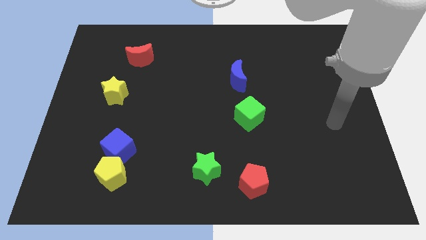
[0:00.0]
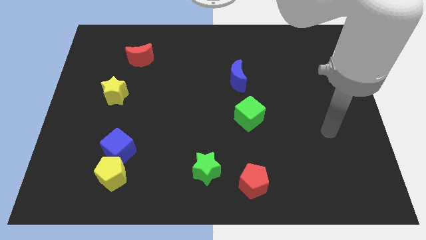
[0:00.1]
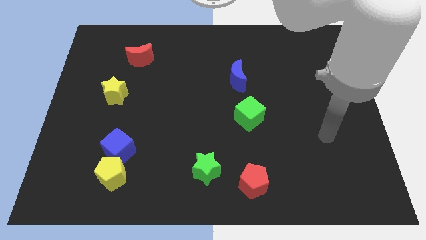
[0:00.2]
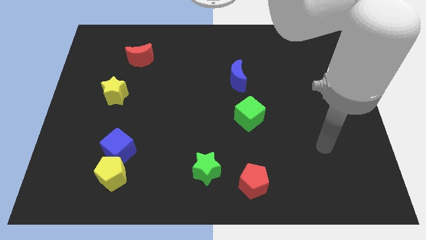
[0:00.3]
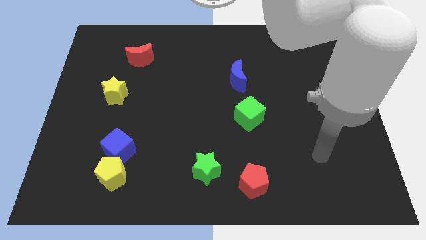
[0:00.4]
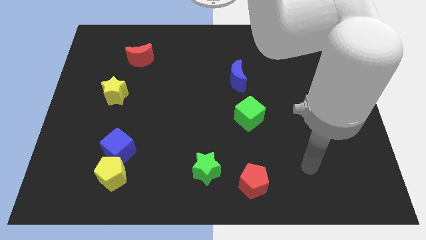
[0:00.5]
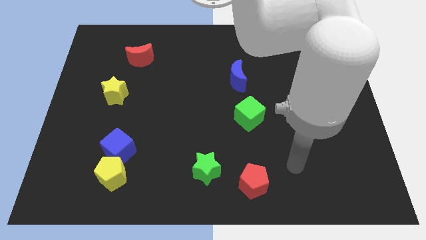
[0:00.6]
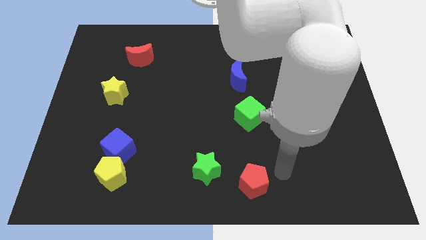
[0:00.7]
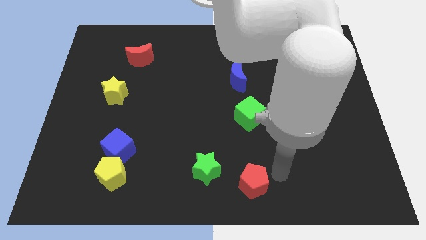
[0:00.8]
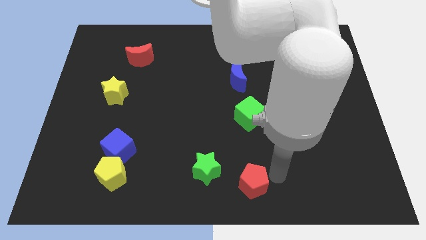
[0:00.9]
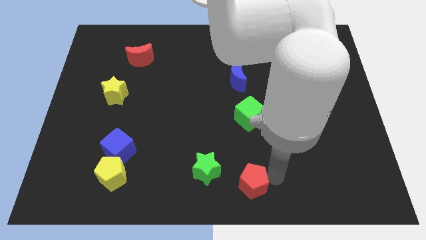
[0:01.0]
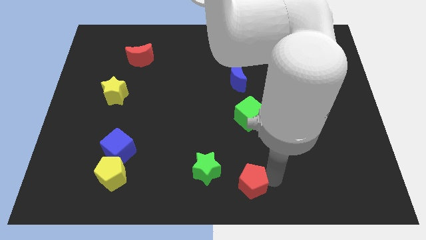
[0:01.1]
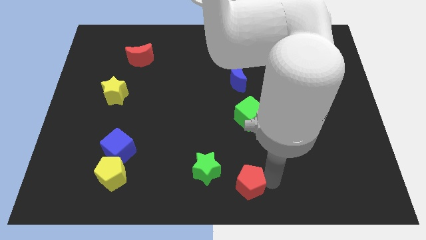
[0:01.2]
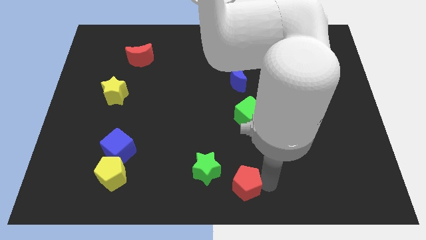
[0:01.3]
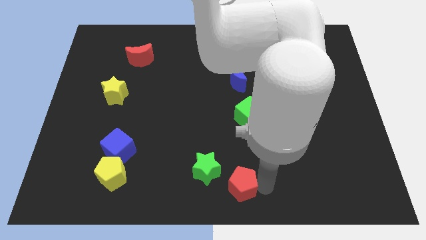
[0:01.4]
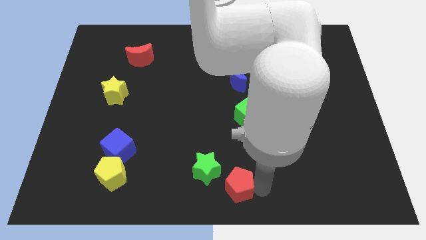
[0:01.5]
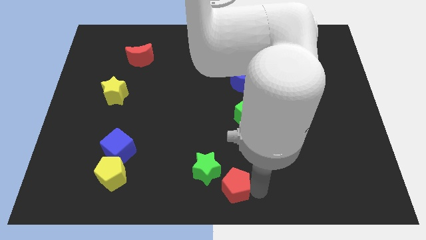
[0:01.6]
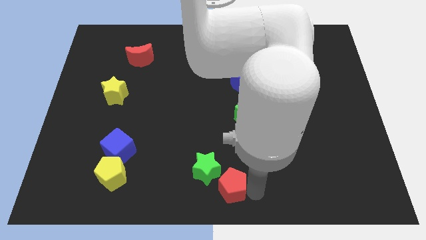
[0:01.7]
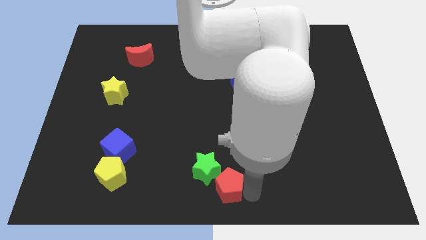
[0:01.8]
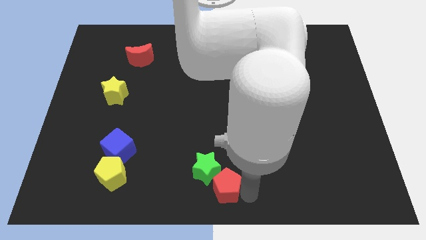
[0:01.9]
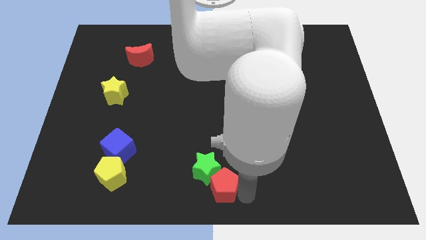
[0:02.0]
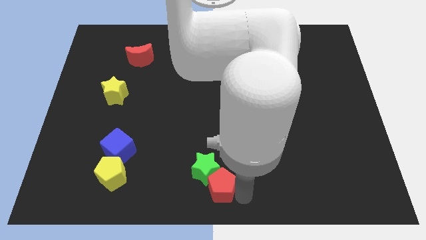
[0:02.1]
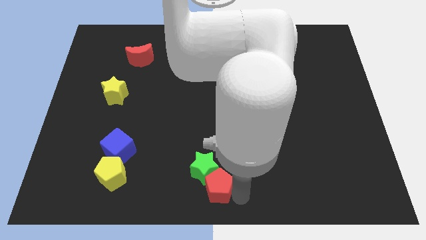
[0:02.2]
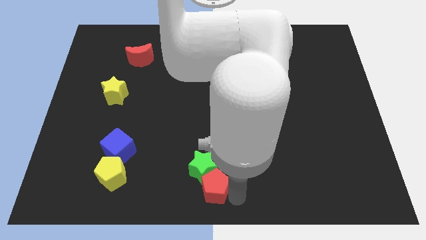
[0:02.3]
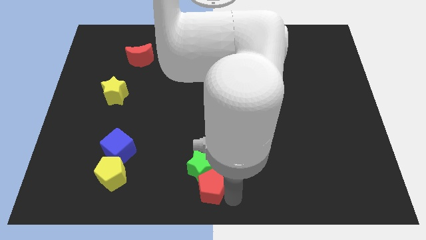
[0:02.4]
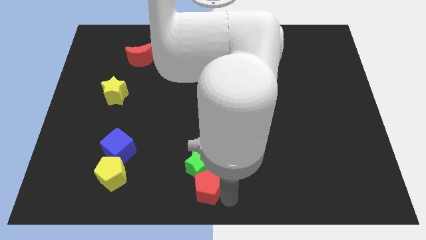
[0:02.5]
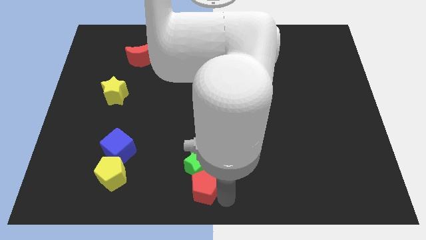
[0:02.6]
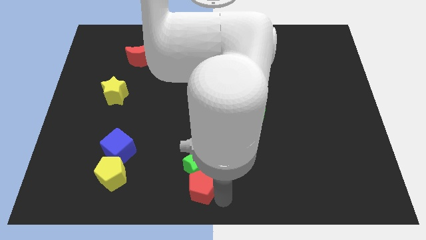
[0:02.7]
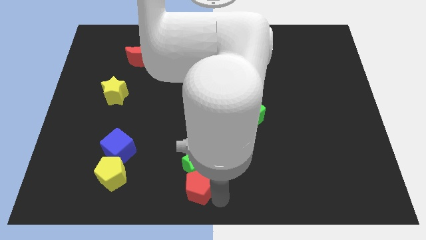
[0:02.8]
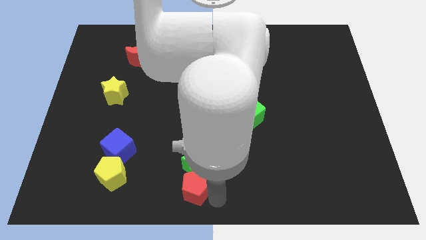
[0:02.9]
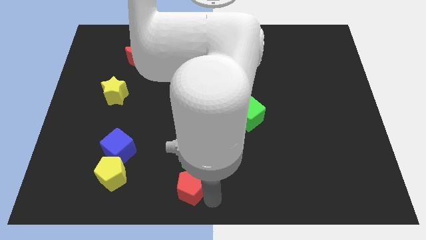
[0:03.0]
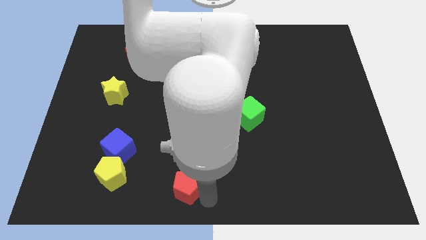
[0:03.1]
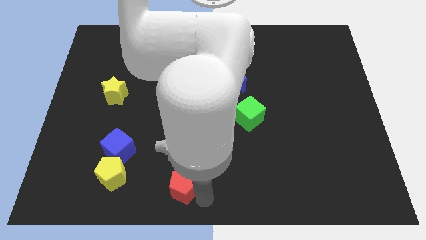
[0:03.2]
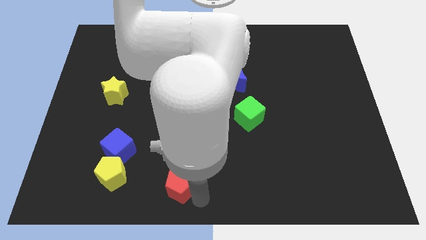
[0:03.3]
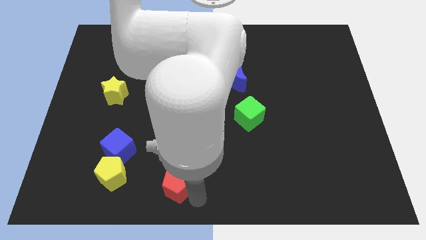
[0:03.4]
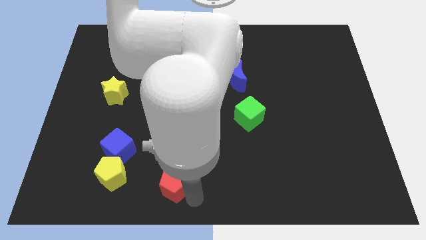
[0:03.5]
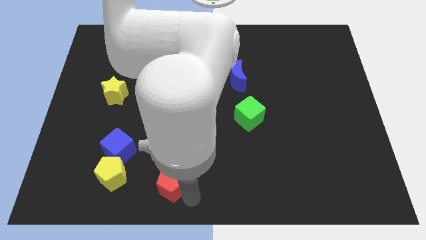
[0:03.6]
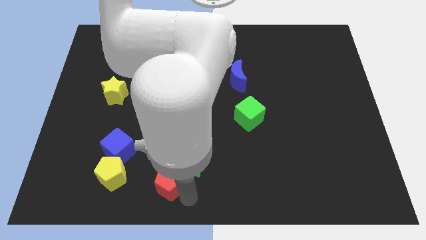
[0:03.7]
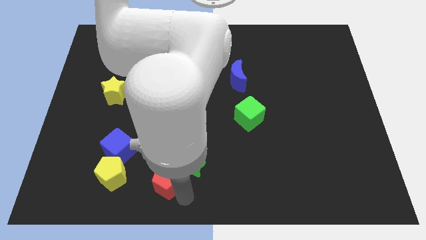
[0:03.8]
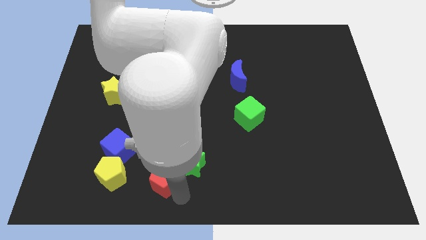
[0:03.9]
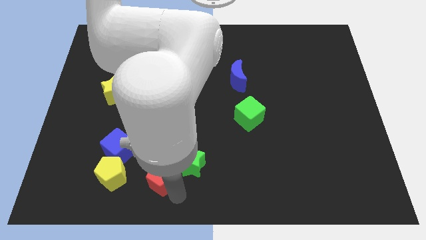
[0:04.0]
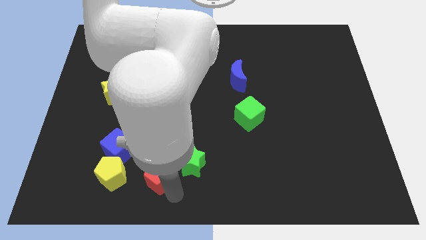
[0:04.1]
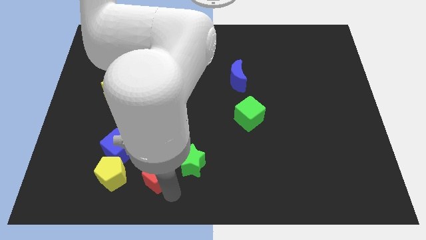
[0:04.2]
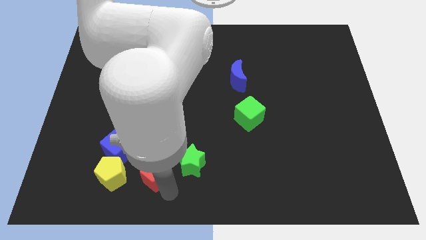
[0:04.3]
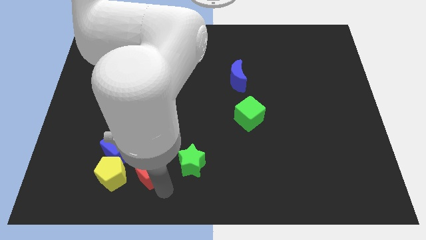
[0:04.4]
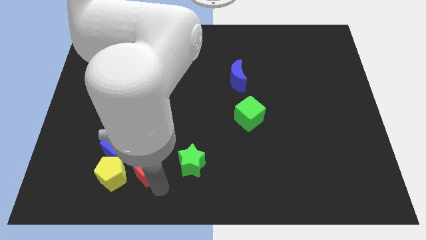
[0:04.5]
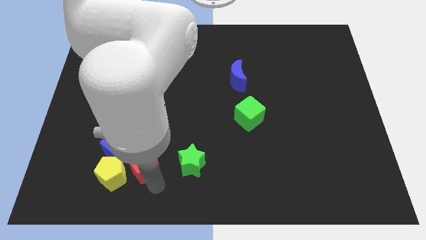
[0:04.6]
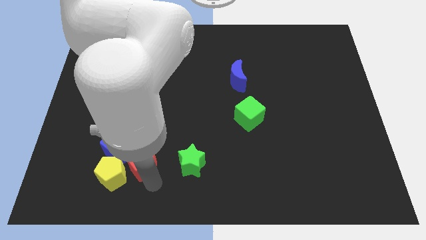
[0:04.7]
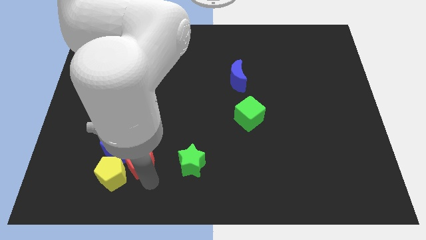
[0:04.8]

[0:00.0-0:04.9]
slide the red pentagon towards the blue cube

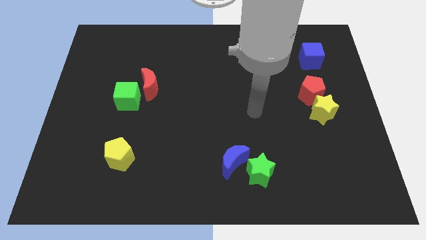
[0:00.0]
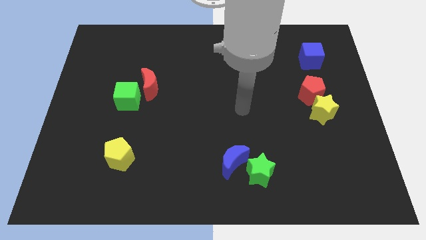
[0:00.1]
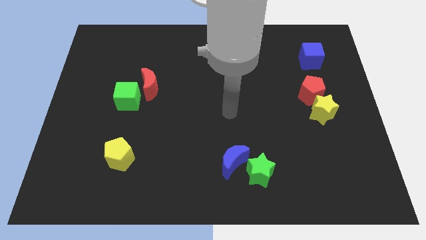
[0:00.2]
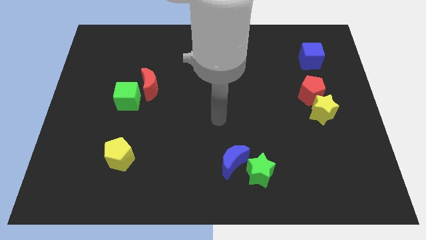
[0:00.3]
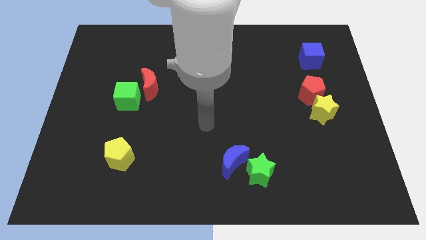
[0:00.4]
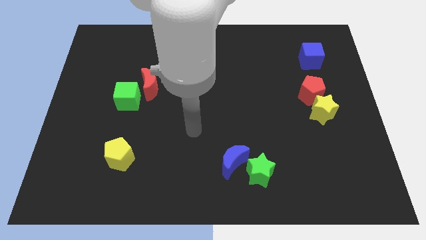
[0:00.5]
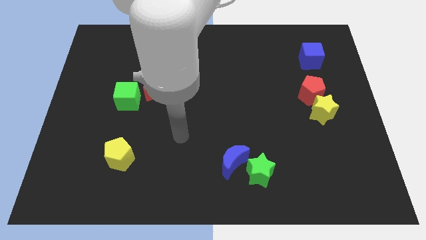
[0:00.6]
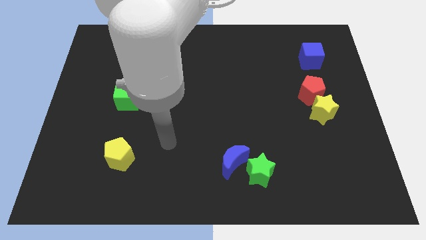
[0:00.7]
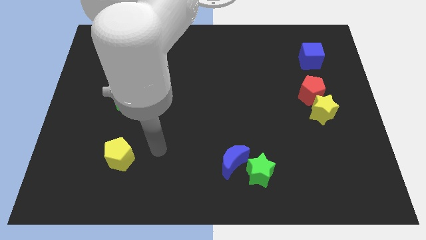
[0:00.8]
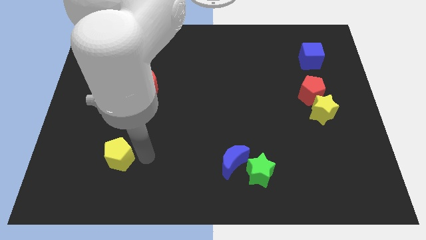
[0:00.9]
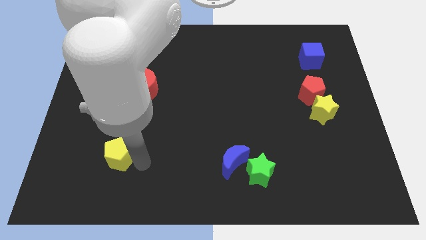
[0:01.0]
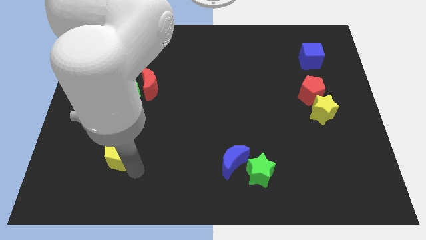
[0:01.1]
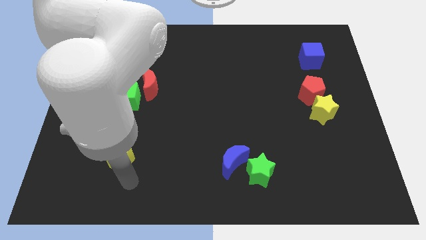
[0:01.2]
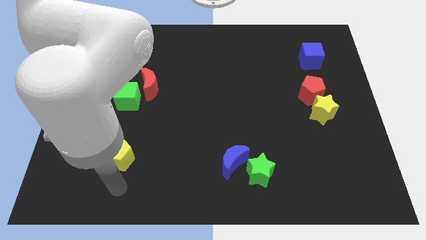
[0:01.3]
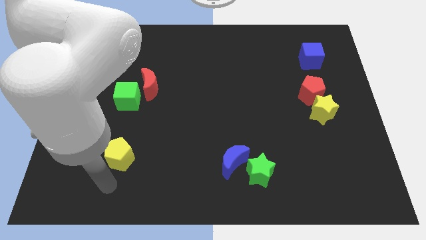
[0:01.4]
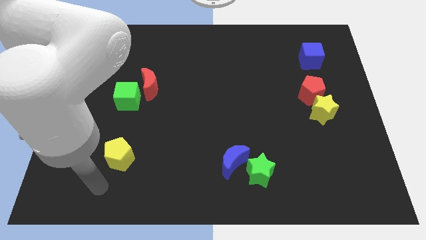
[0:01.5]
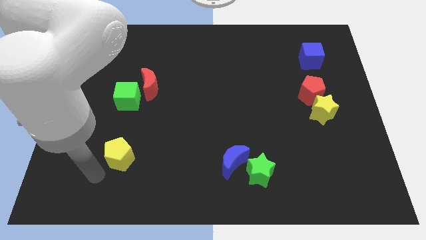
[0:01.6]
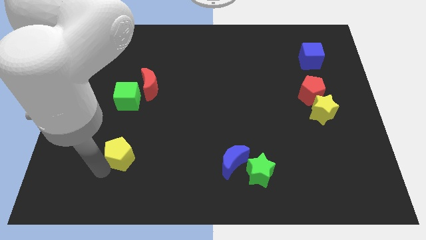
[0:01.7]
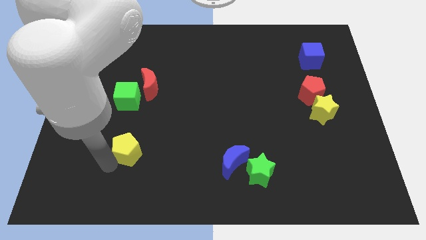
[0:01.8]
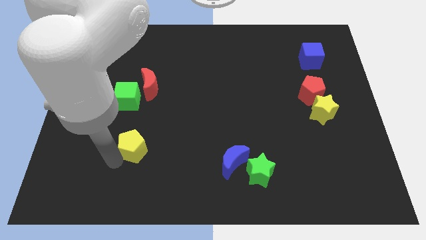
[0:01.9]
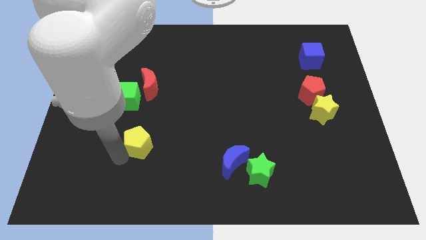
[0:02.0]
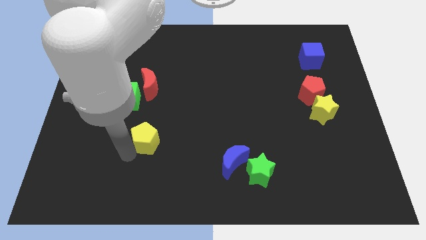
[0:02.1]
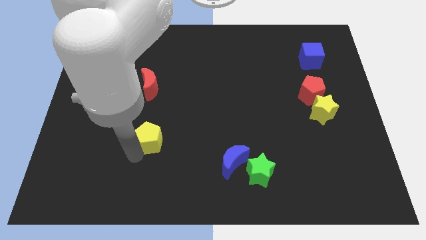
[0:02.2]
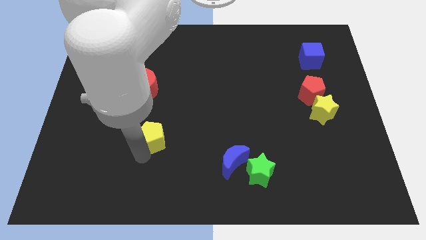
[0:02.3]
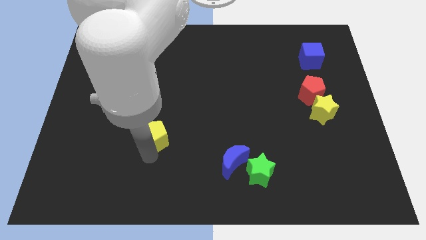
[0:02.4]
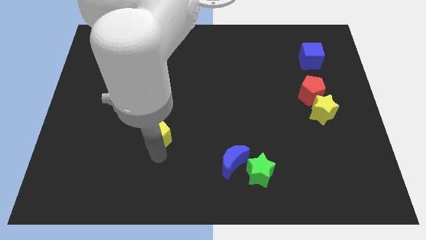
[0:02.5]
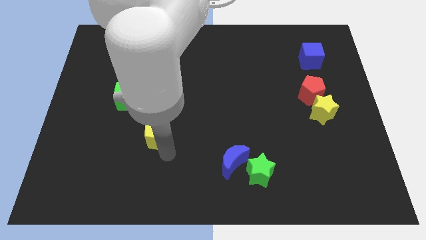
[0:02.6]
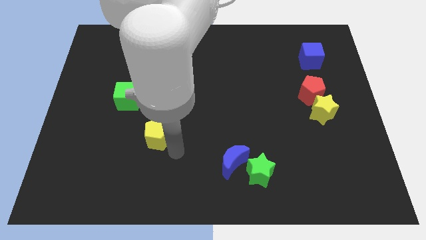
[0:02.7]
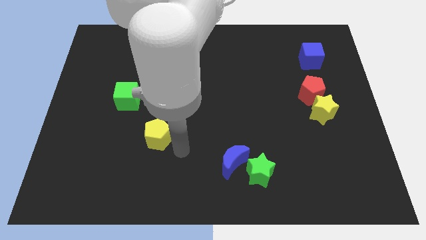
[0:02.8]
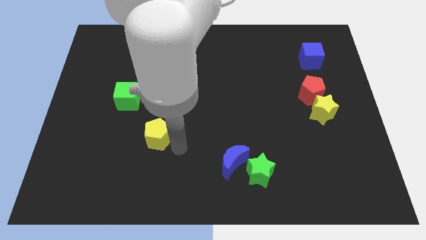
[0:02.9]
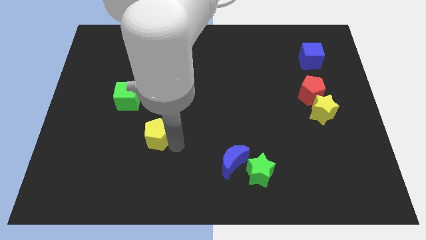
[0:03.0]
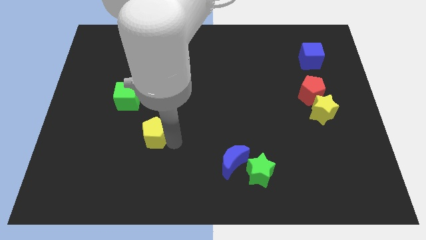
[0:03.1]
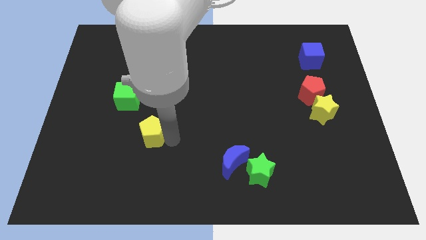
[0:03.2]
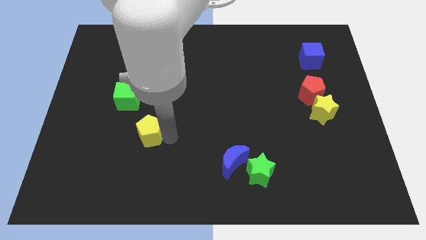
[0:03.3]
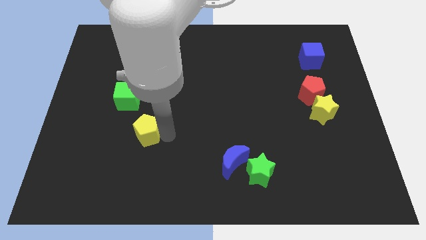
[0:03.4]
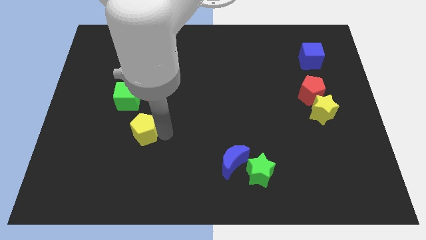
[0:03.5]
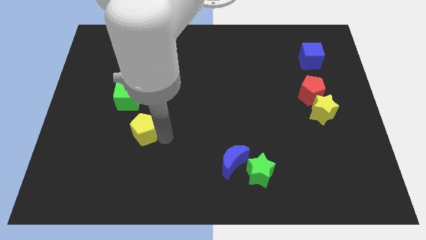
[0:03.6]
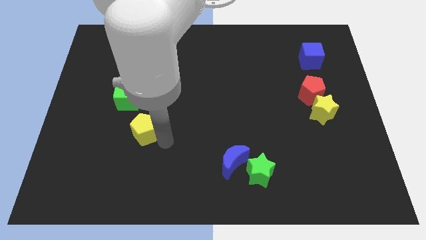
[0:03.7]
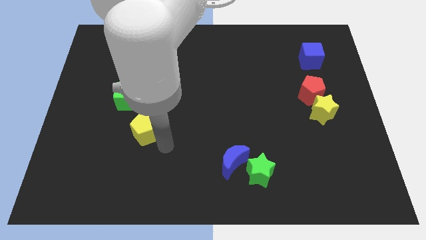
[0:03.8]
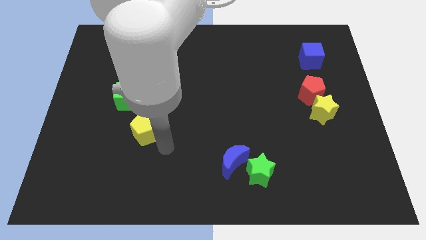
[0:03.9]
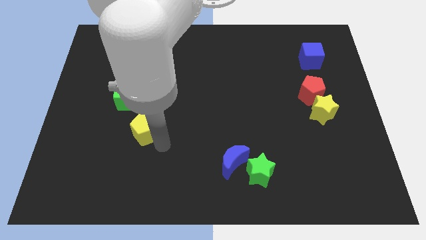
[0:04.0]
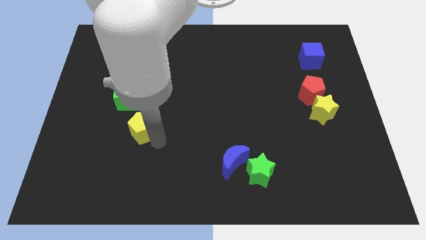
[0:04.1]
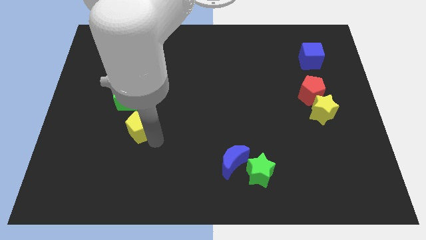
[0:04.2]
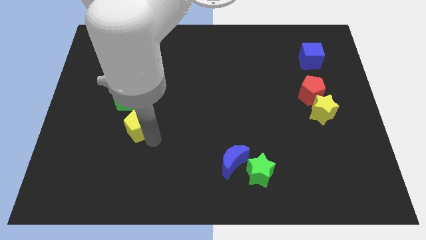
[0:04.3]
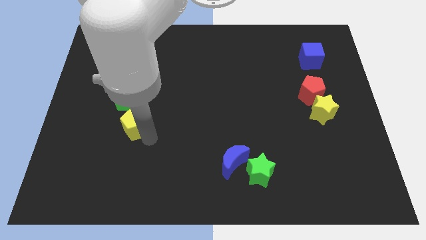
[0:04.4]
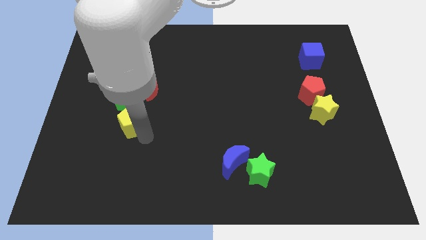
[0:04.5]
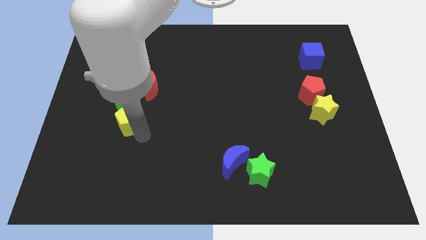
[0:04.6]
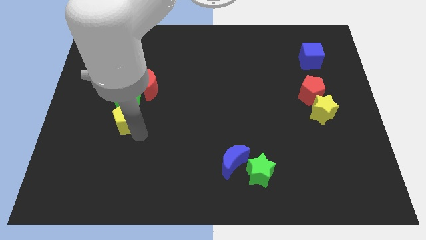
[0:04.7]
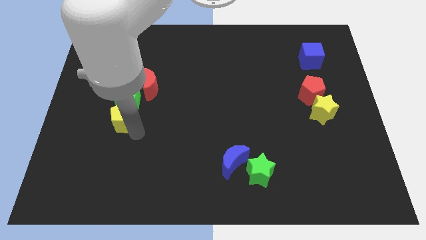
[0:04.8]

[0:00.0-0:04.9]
put the yellow pentagon close to the green cube
